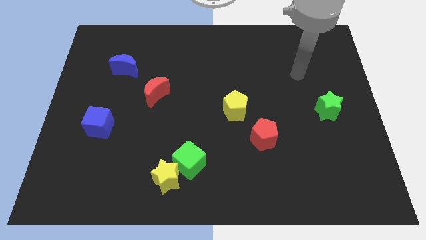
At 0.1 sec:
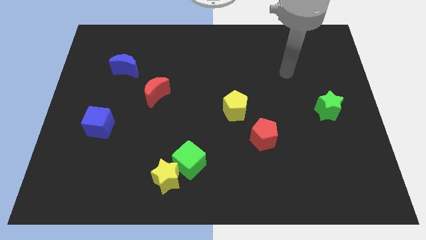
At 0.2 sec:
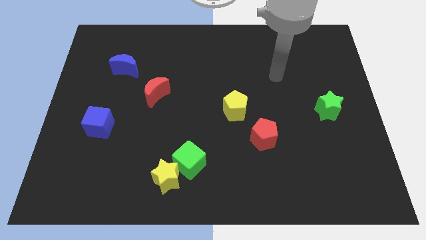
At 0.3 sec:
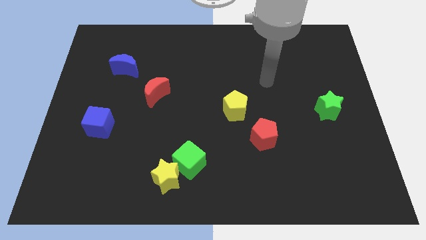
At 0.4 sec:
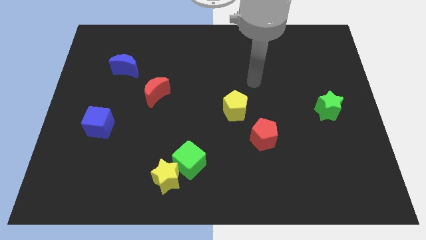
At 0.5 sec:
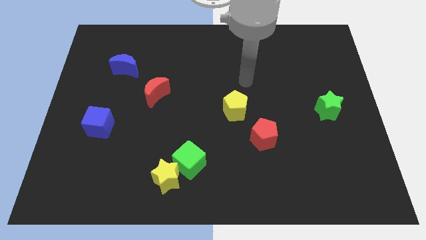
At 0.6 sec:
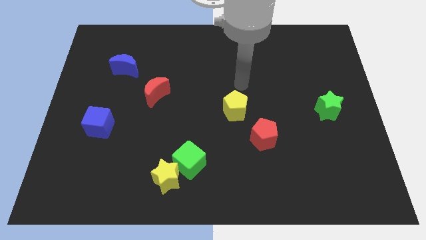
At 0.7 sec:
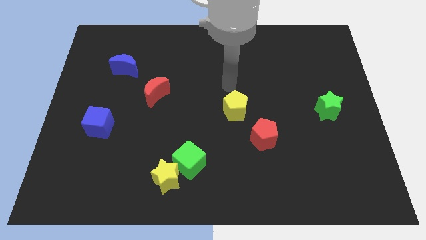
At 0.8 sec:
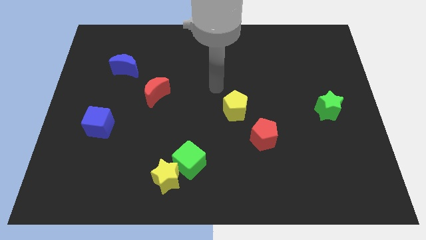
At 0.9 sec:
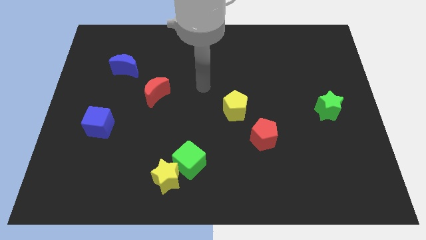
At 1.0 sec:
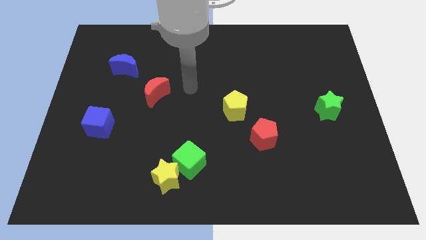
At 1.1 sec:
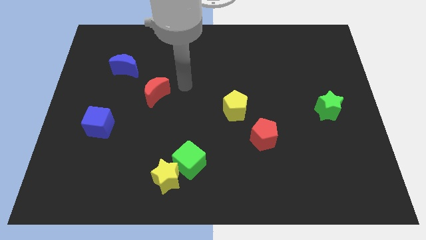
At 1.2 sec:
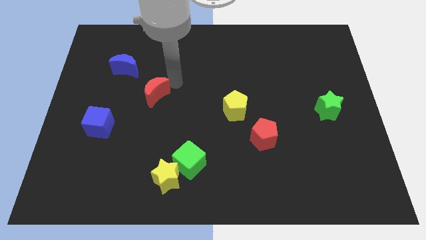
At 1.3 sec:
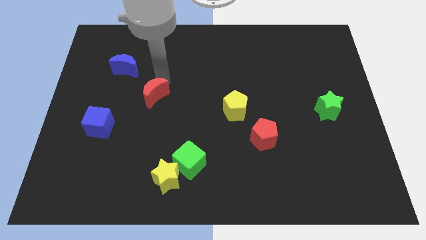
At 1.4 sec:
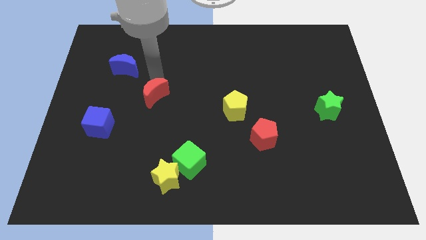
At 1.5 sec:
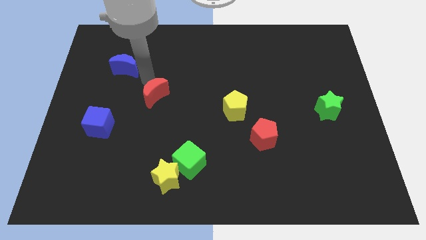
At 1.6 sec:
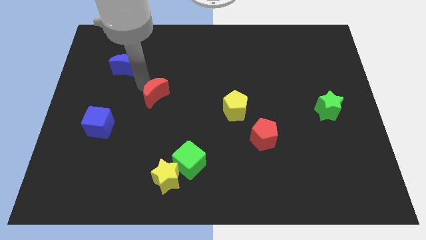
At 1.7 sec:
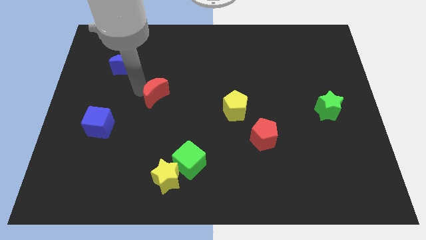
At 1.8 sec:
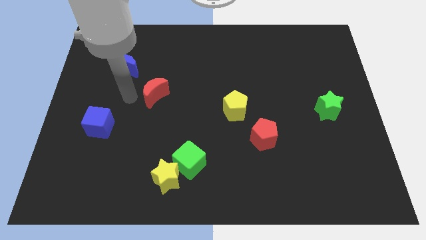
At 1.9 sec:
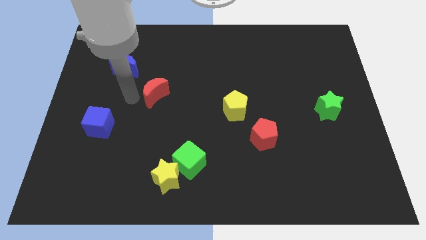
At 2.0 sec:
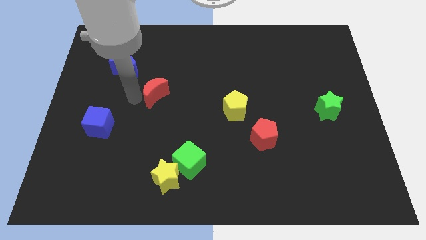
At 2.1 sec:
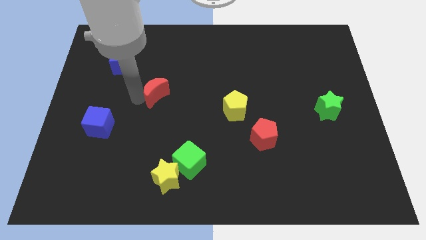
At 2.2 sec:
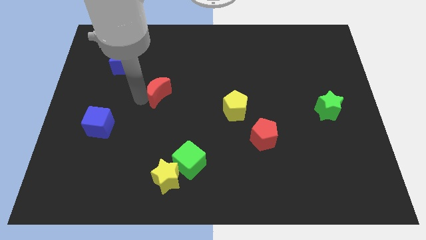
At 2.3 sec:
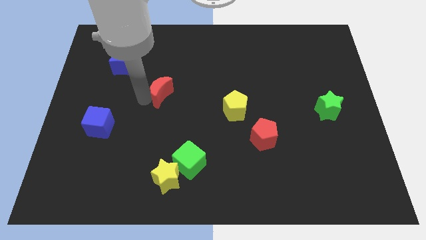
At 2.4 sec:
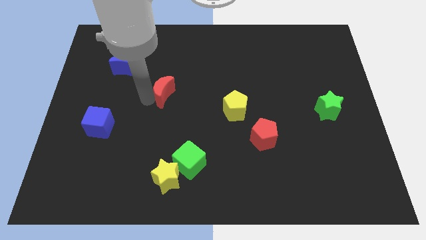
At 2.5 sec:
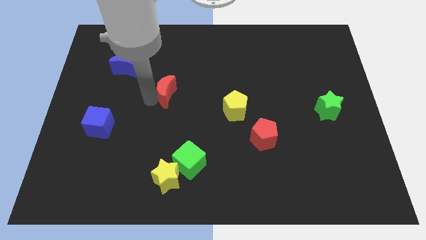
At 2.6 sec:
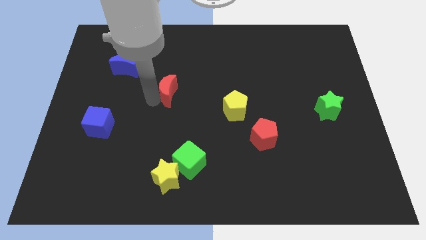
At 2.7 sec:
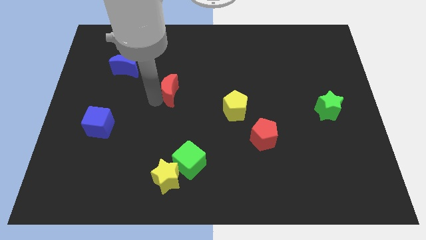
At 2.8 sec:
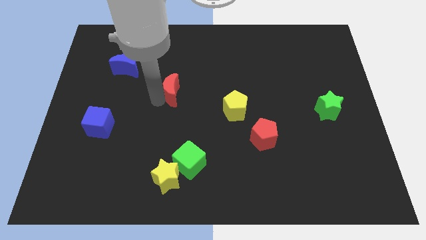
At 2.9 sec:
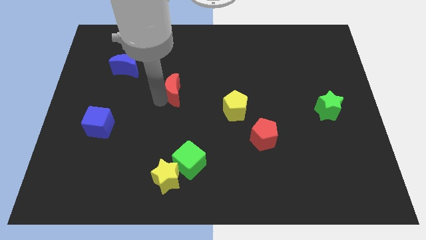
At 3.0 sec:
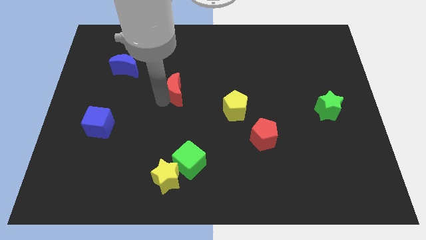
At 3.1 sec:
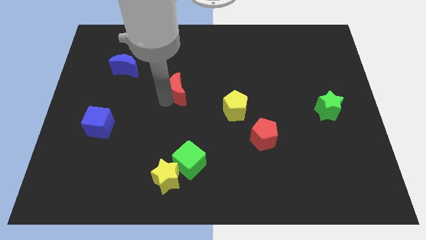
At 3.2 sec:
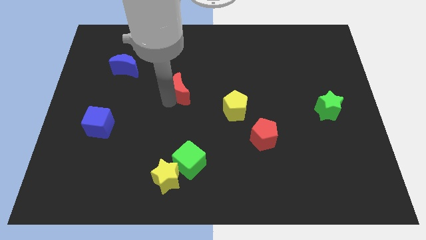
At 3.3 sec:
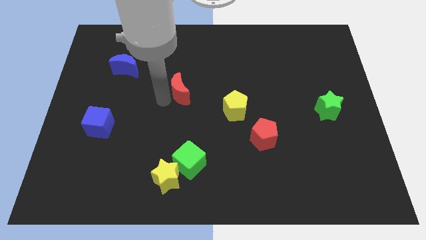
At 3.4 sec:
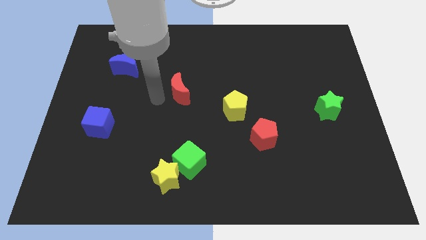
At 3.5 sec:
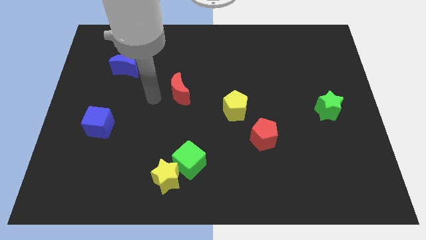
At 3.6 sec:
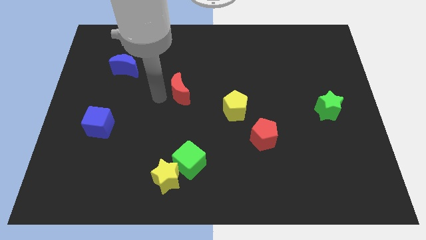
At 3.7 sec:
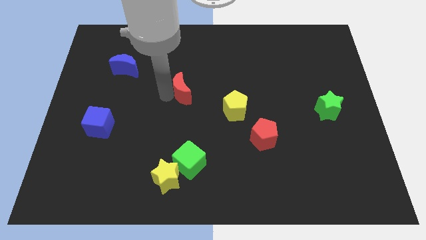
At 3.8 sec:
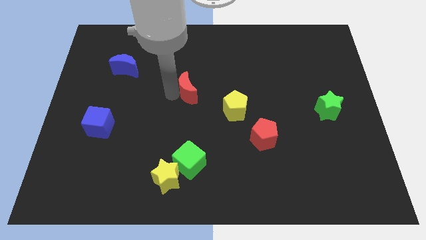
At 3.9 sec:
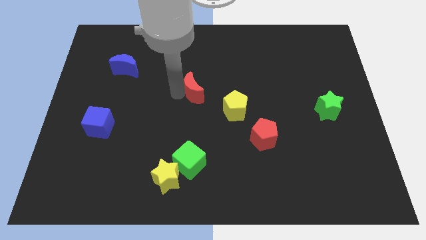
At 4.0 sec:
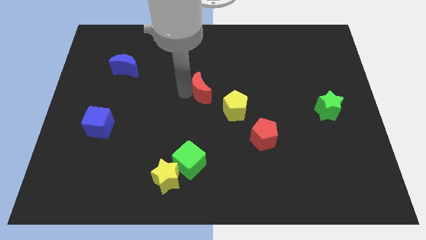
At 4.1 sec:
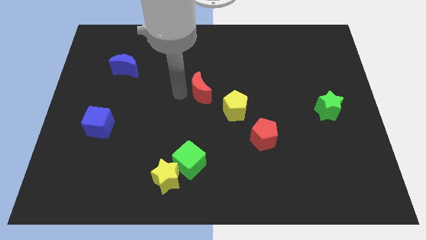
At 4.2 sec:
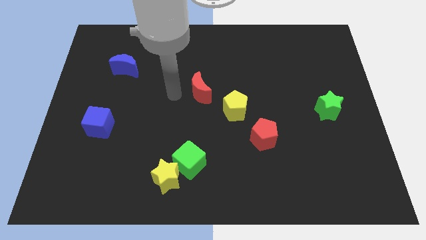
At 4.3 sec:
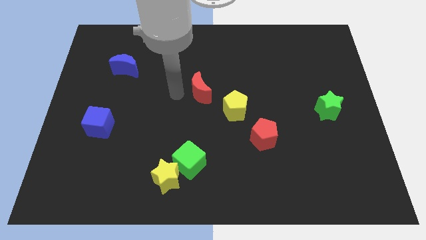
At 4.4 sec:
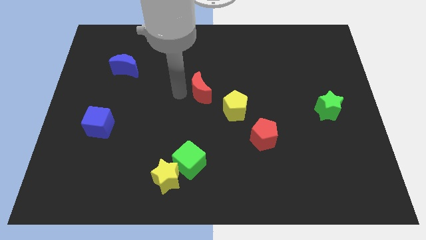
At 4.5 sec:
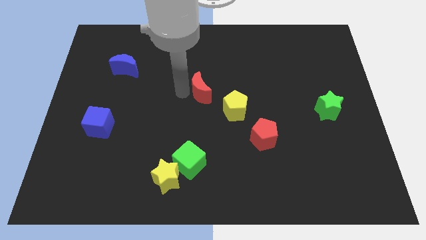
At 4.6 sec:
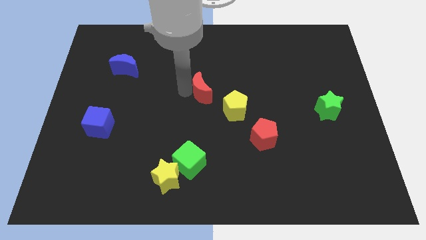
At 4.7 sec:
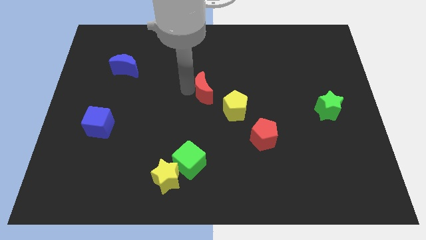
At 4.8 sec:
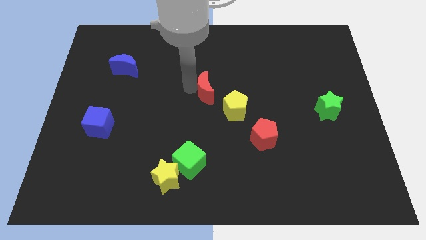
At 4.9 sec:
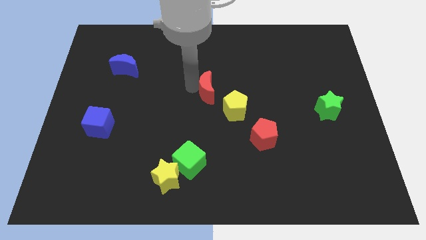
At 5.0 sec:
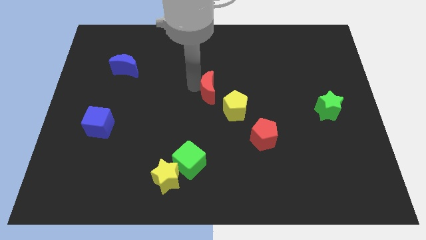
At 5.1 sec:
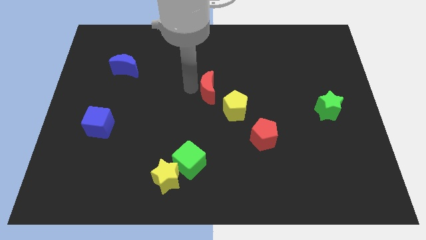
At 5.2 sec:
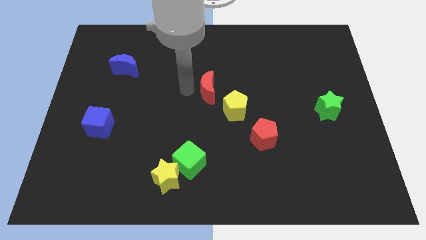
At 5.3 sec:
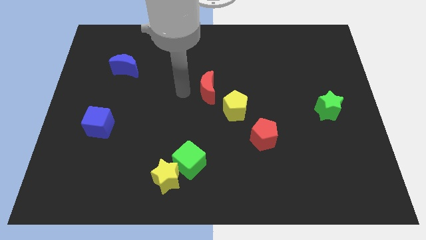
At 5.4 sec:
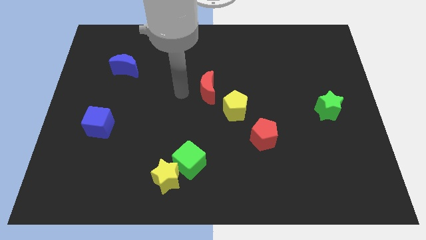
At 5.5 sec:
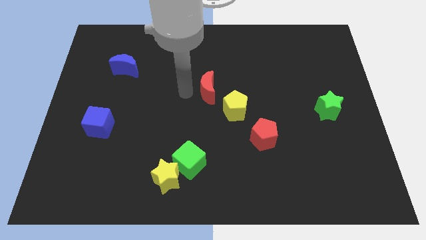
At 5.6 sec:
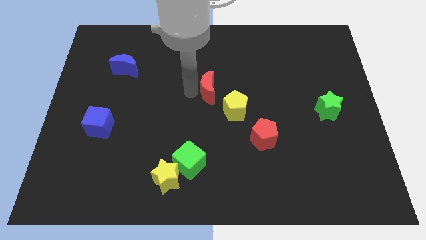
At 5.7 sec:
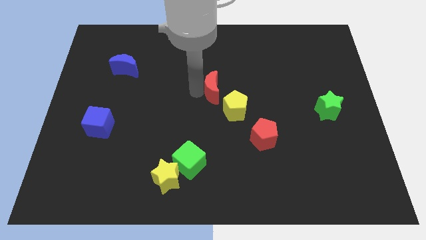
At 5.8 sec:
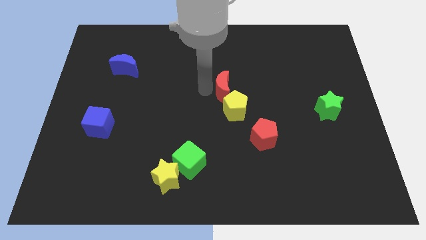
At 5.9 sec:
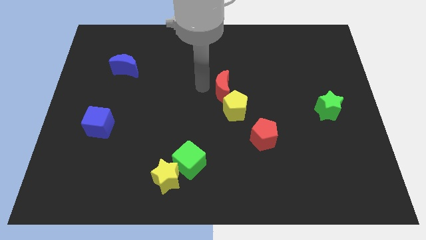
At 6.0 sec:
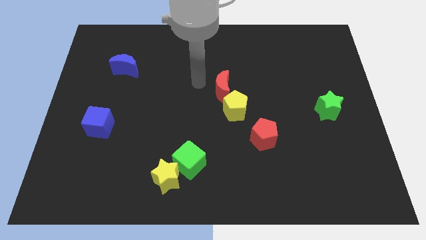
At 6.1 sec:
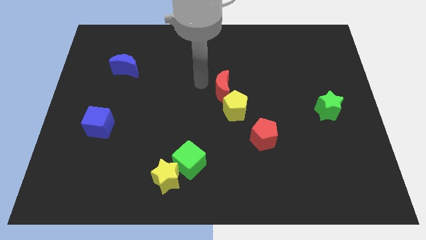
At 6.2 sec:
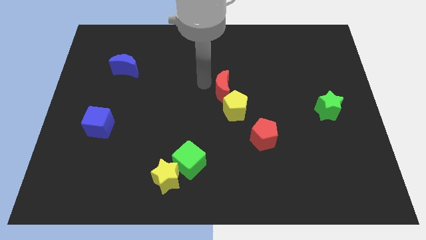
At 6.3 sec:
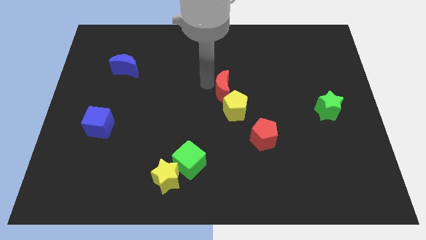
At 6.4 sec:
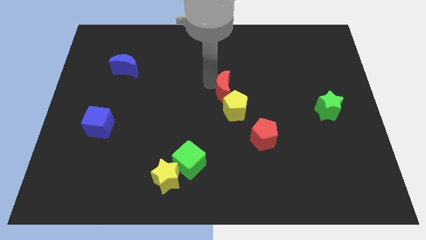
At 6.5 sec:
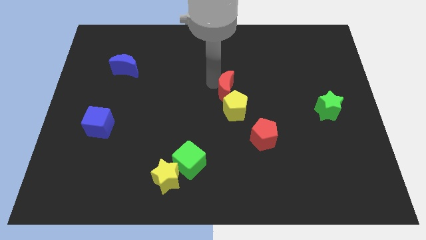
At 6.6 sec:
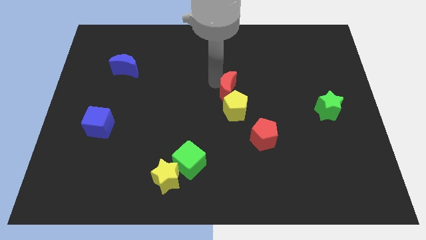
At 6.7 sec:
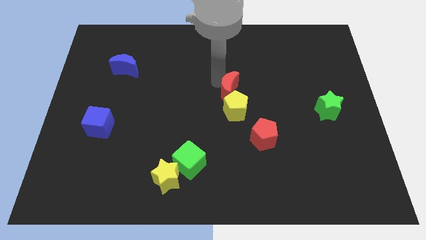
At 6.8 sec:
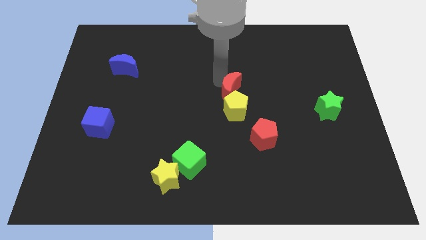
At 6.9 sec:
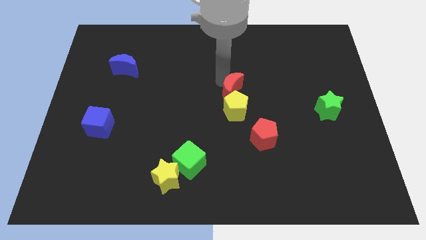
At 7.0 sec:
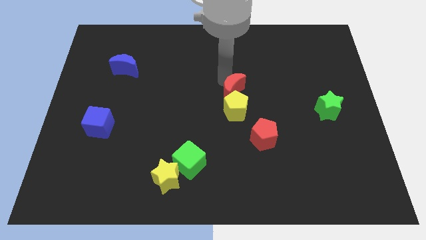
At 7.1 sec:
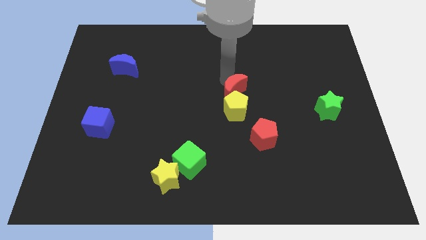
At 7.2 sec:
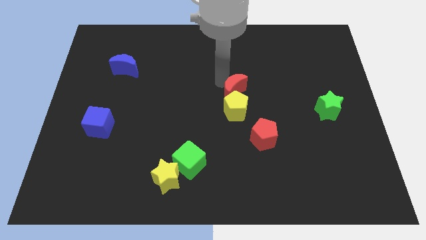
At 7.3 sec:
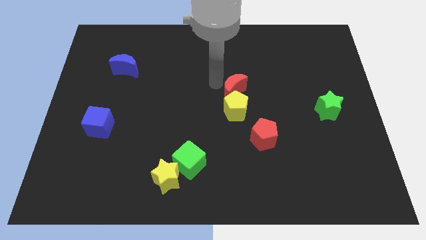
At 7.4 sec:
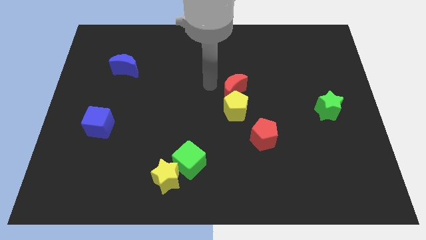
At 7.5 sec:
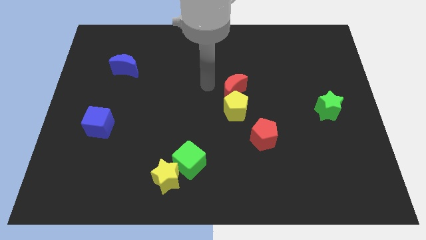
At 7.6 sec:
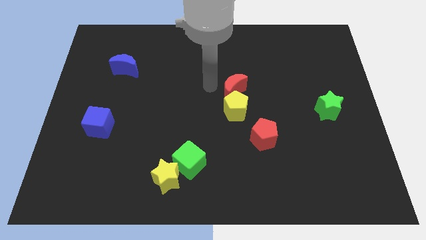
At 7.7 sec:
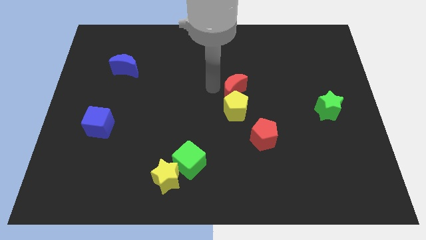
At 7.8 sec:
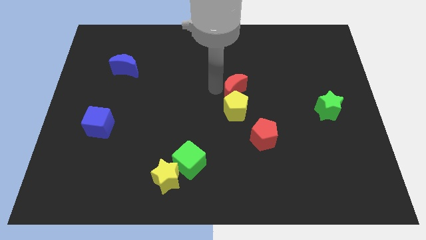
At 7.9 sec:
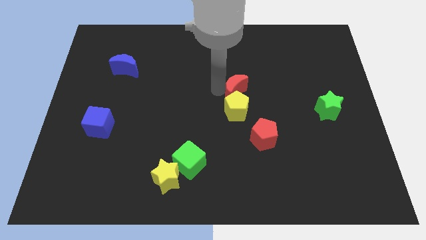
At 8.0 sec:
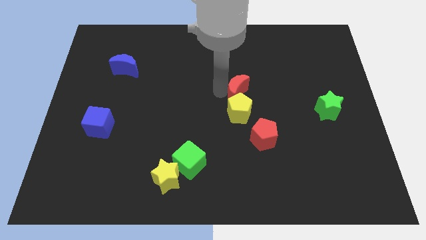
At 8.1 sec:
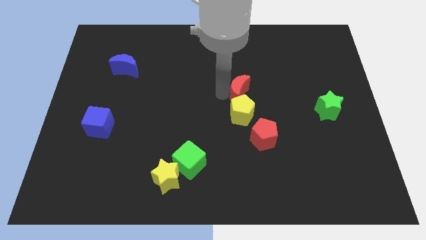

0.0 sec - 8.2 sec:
move the red moon to the right

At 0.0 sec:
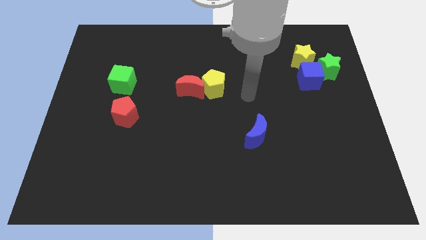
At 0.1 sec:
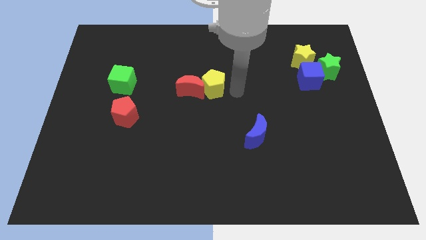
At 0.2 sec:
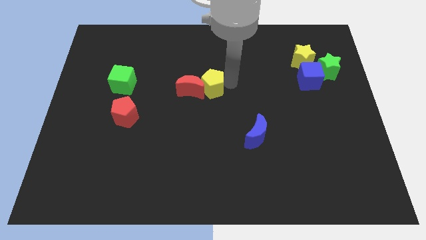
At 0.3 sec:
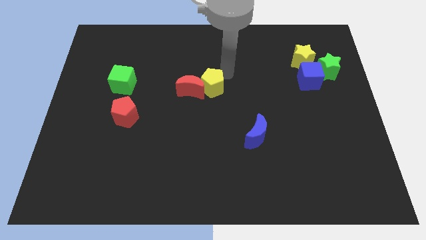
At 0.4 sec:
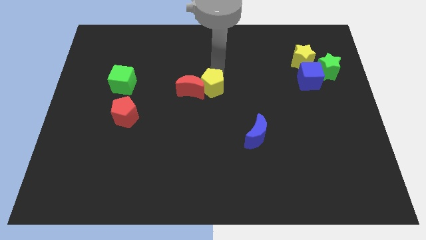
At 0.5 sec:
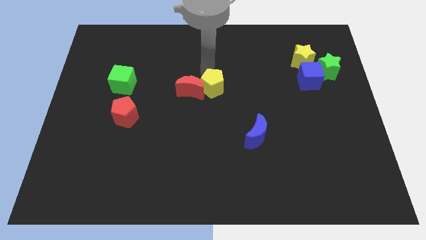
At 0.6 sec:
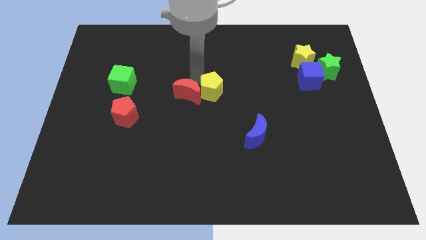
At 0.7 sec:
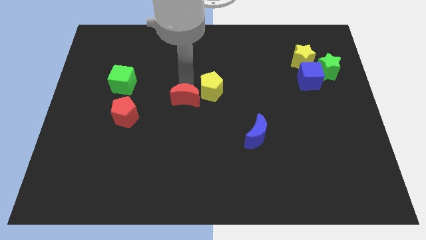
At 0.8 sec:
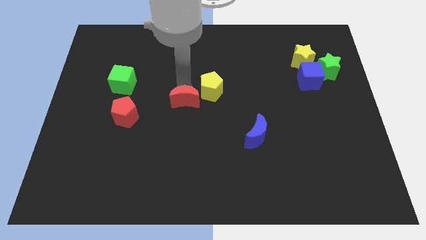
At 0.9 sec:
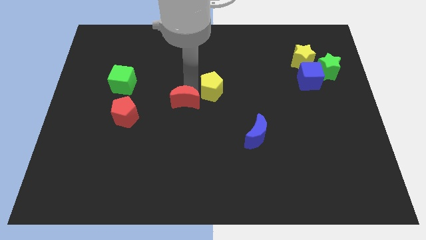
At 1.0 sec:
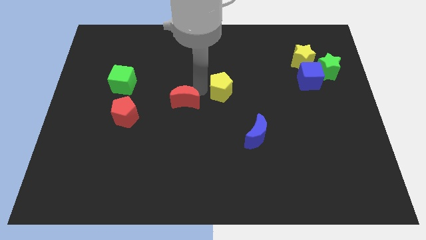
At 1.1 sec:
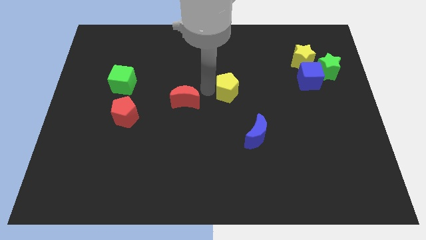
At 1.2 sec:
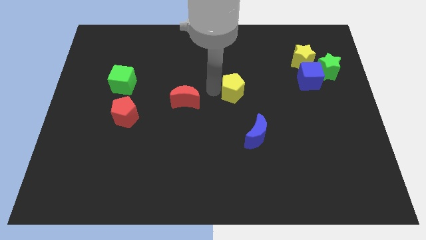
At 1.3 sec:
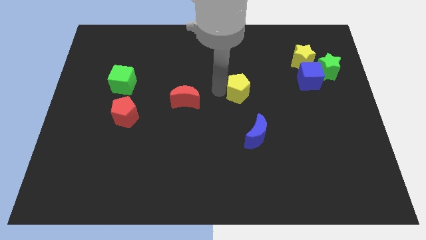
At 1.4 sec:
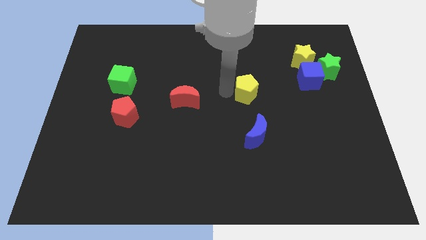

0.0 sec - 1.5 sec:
push the yellow pentagon somewhat right
